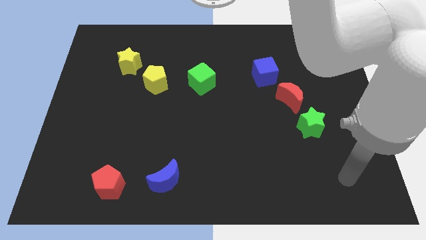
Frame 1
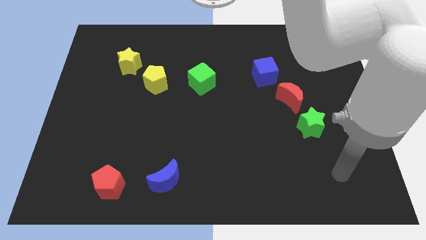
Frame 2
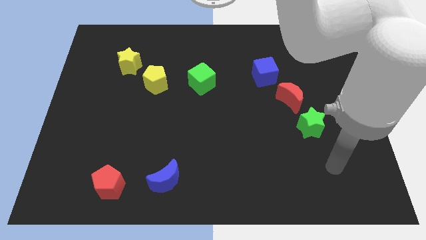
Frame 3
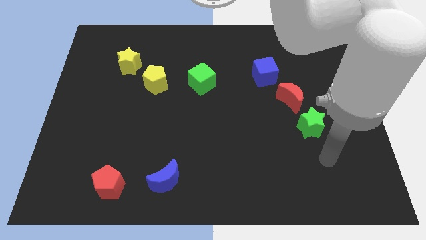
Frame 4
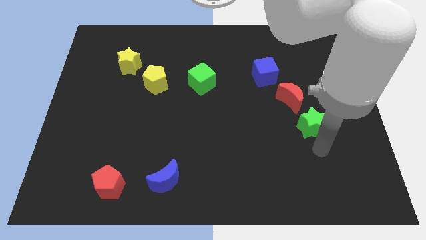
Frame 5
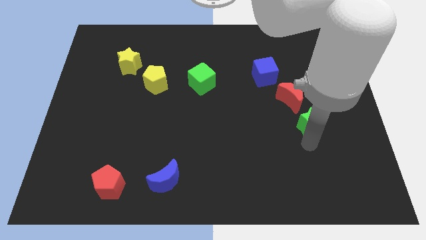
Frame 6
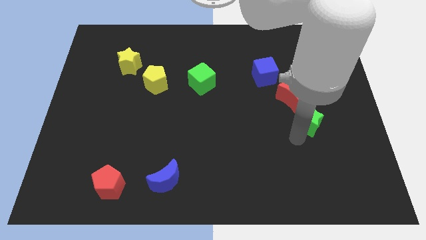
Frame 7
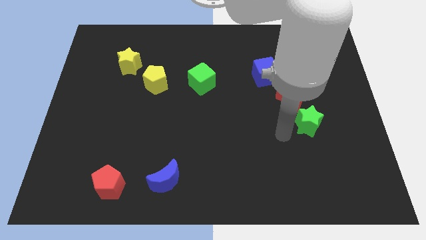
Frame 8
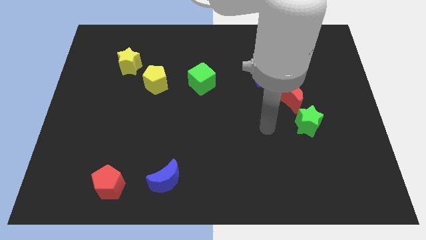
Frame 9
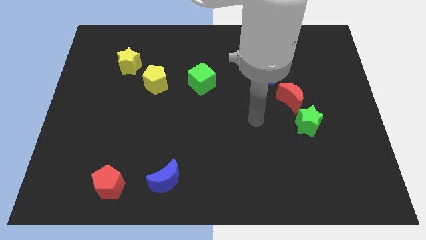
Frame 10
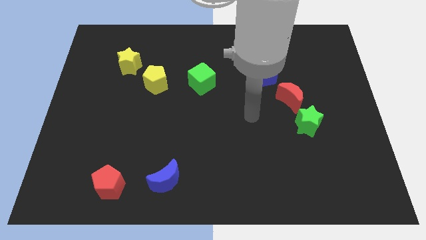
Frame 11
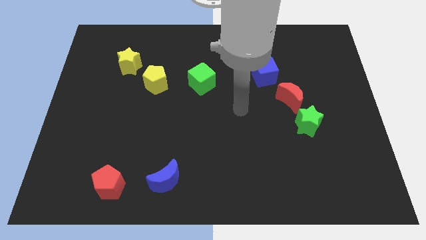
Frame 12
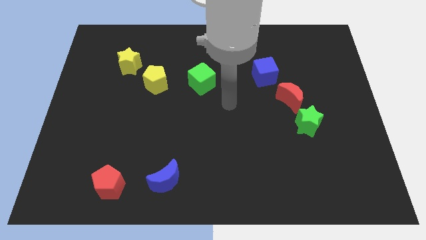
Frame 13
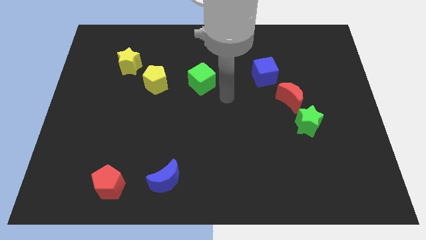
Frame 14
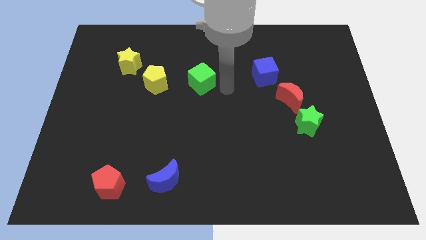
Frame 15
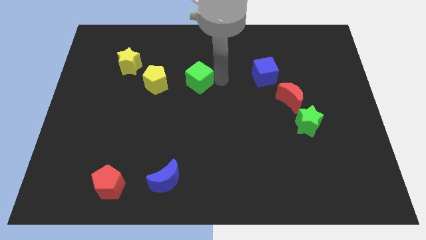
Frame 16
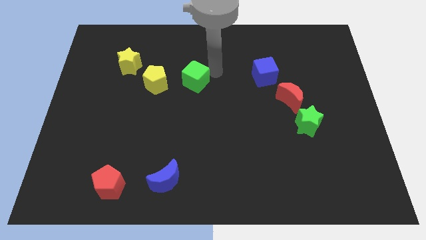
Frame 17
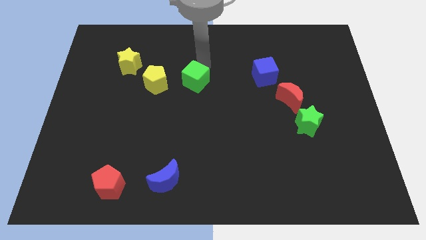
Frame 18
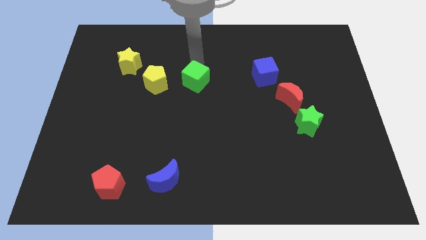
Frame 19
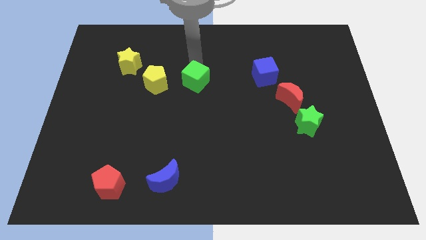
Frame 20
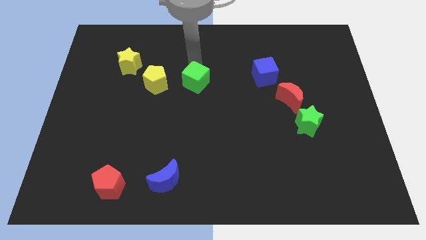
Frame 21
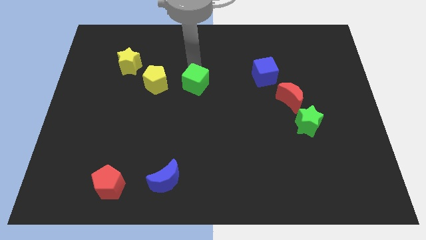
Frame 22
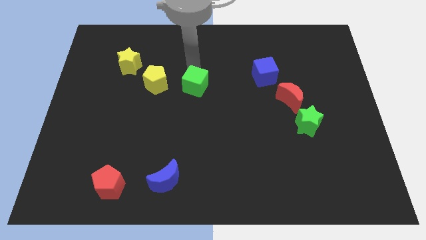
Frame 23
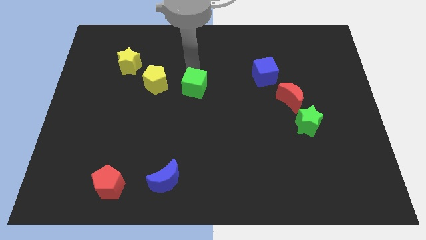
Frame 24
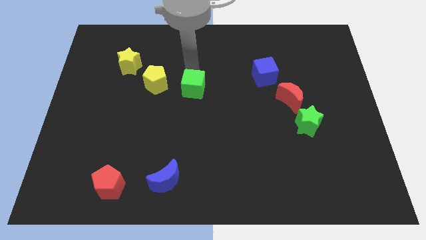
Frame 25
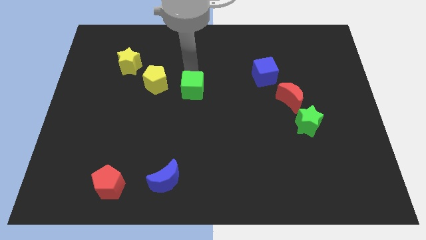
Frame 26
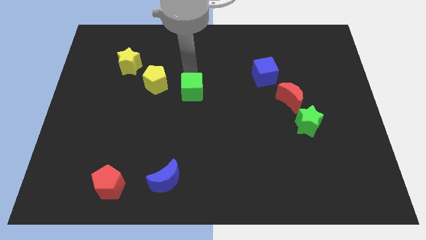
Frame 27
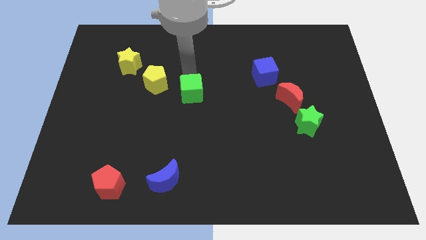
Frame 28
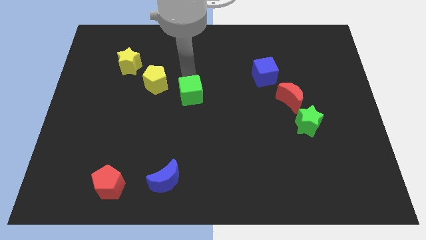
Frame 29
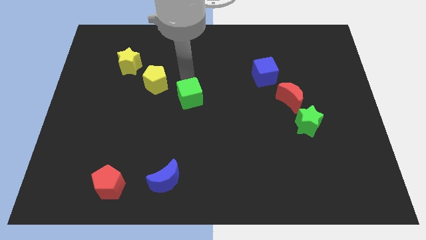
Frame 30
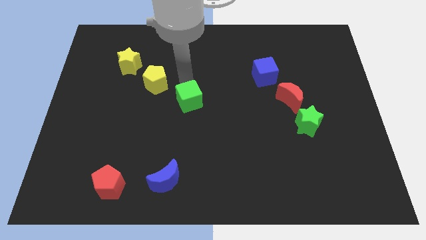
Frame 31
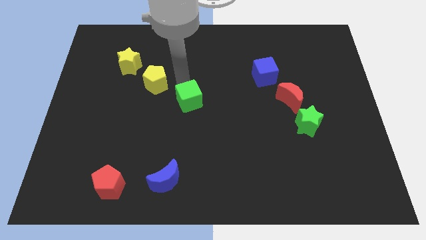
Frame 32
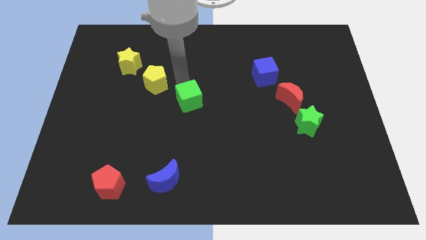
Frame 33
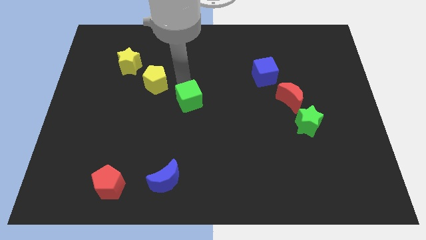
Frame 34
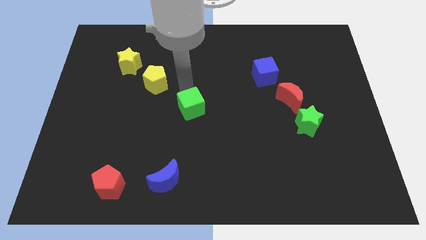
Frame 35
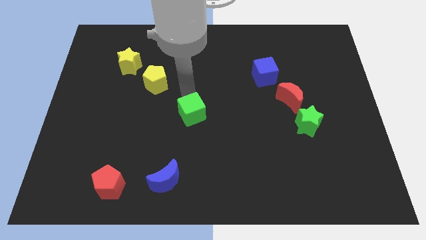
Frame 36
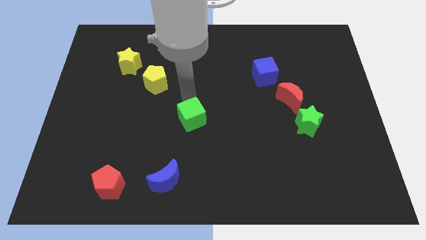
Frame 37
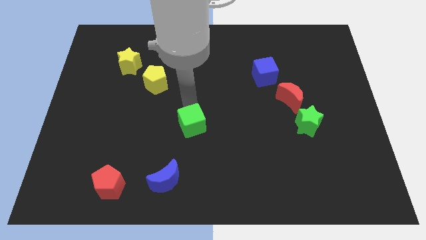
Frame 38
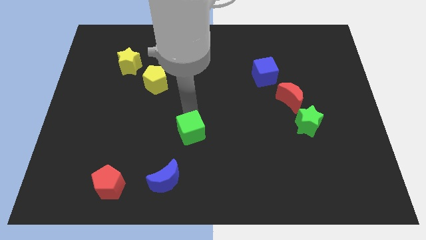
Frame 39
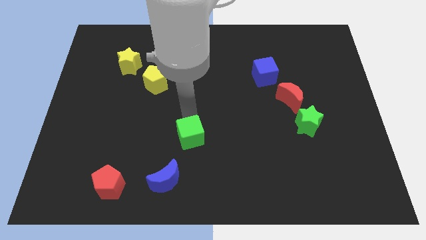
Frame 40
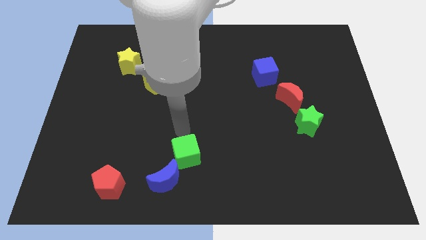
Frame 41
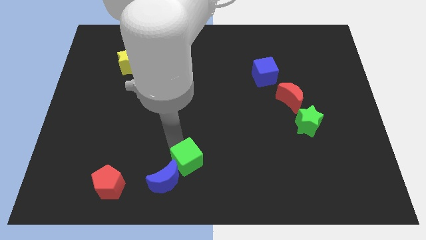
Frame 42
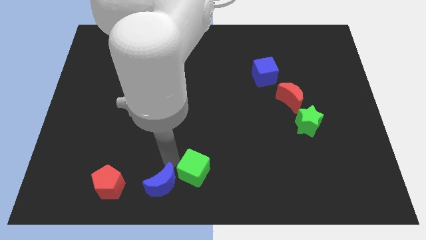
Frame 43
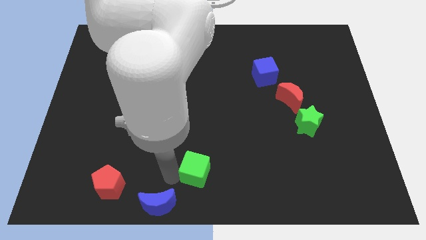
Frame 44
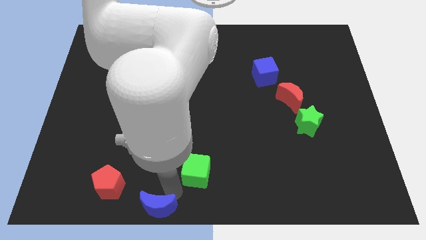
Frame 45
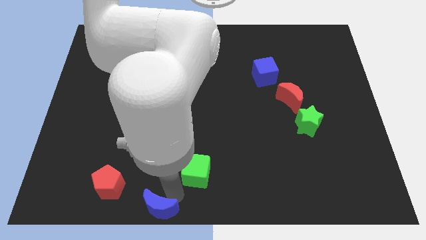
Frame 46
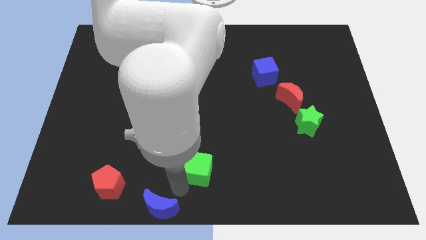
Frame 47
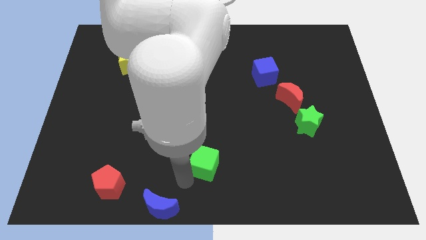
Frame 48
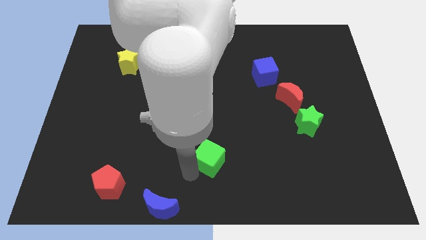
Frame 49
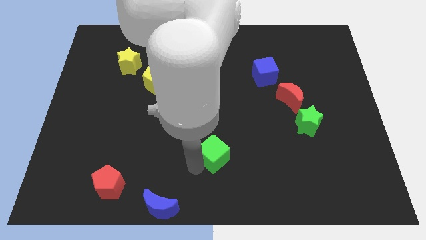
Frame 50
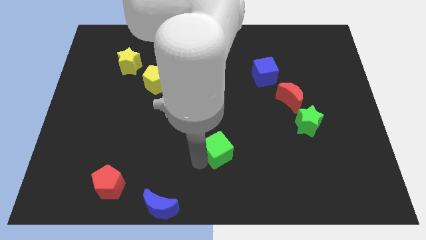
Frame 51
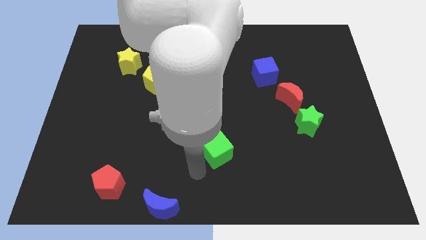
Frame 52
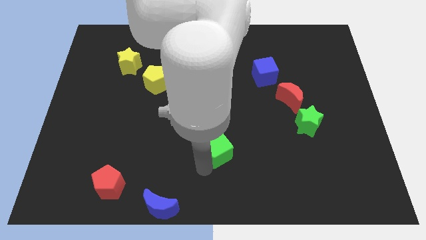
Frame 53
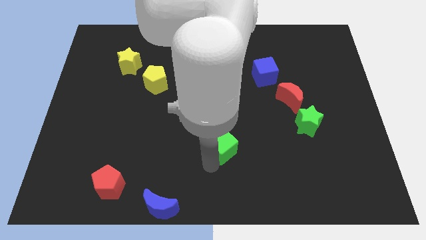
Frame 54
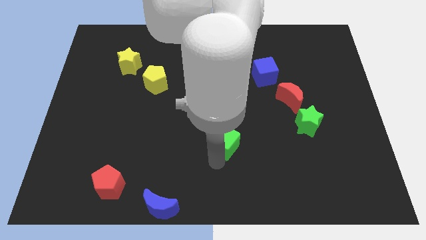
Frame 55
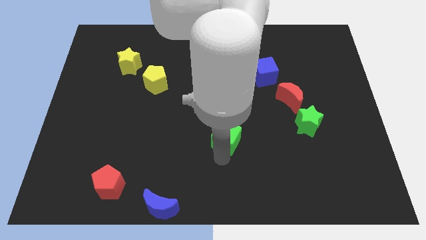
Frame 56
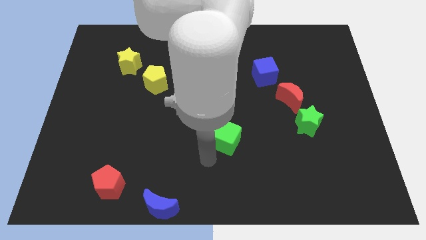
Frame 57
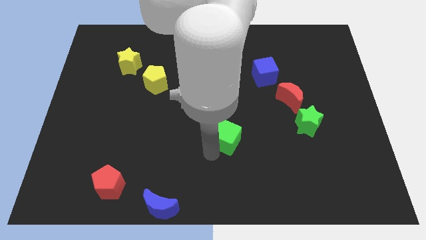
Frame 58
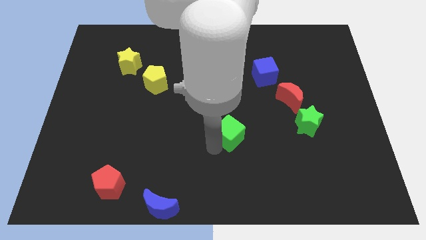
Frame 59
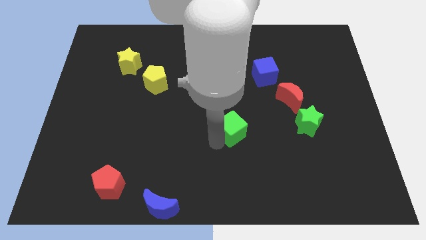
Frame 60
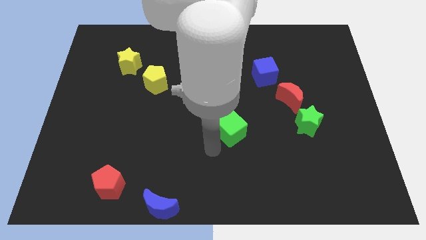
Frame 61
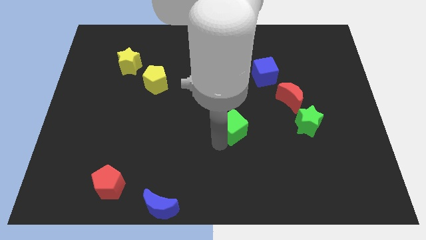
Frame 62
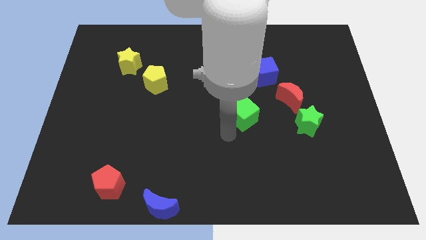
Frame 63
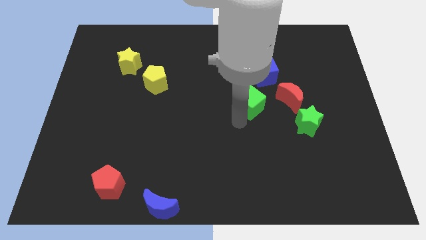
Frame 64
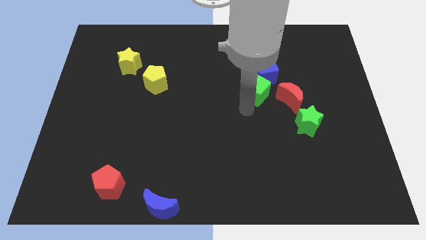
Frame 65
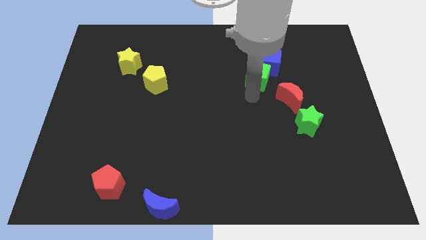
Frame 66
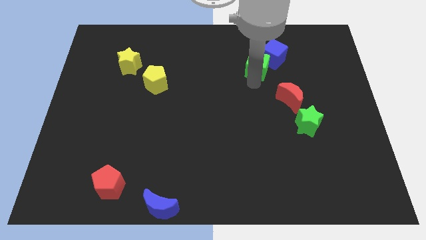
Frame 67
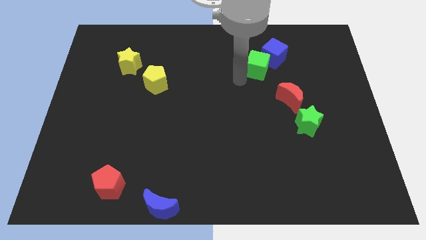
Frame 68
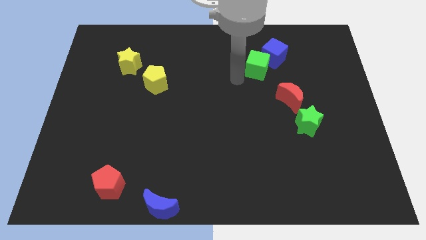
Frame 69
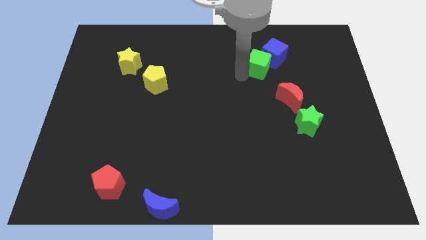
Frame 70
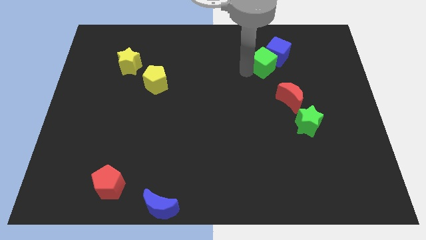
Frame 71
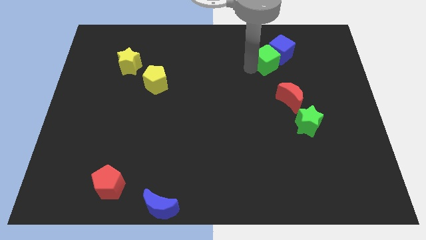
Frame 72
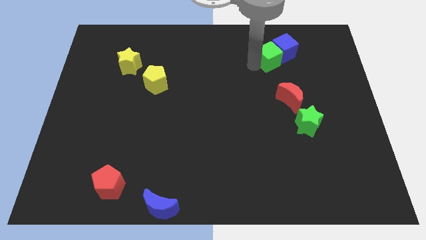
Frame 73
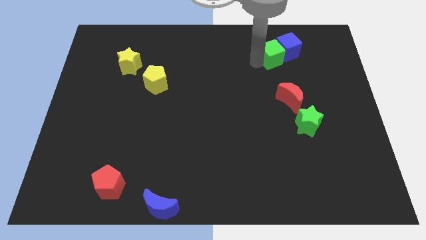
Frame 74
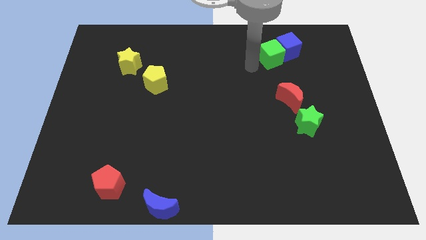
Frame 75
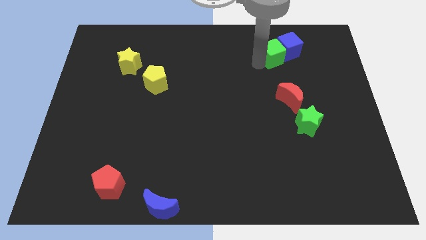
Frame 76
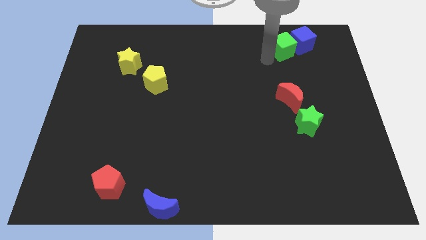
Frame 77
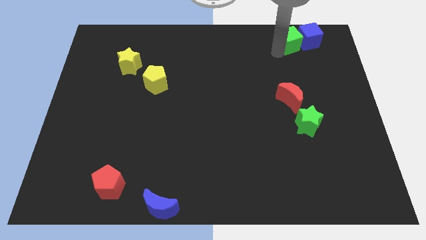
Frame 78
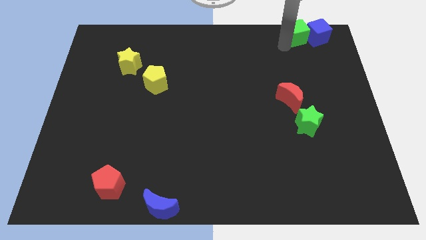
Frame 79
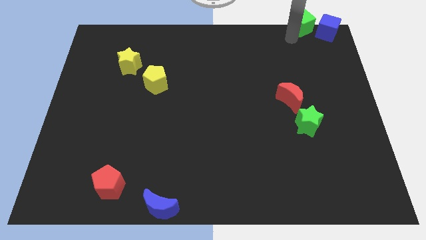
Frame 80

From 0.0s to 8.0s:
slide the green cube to the top right corner

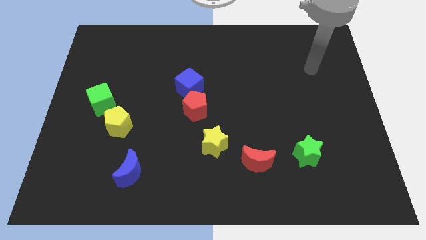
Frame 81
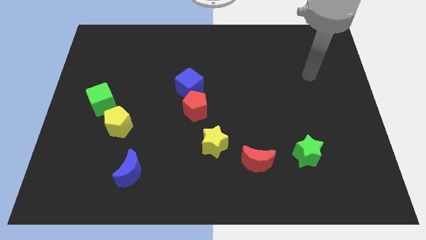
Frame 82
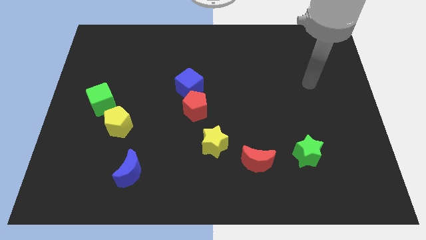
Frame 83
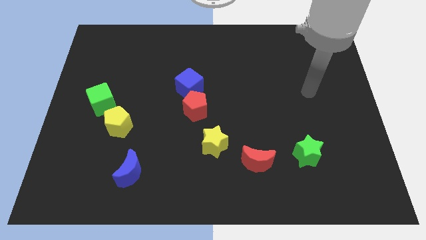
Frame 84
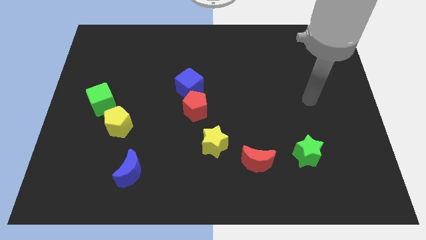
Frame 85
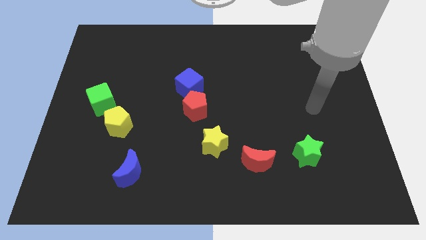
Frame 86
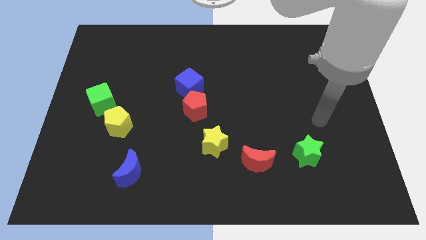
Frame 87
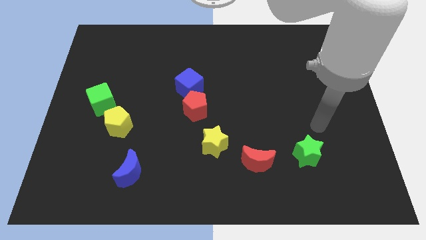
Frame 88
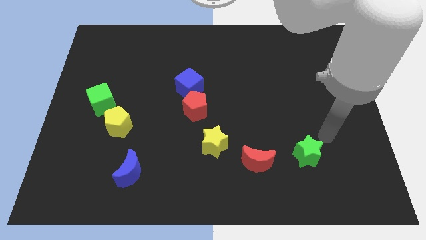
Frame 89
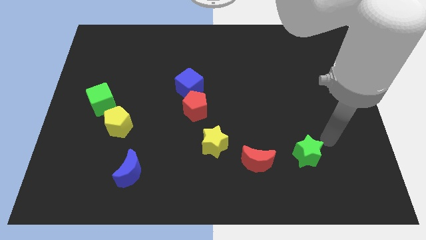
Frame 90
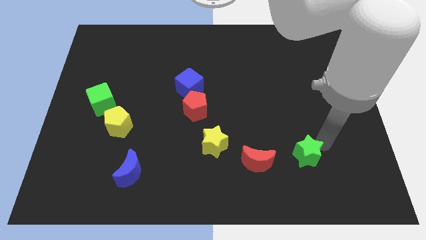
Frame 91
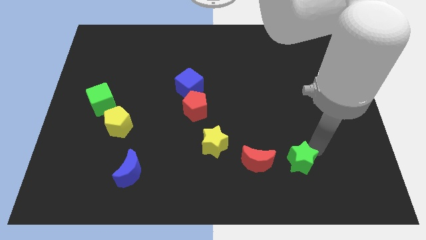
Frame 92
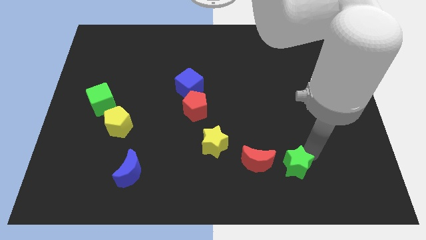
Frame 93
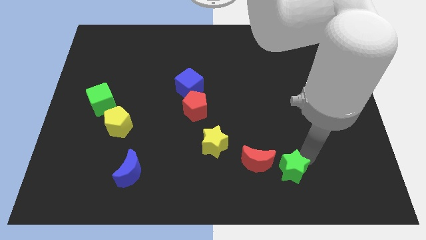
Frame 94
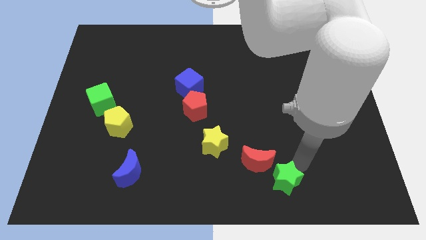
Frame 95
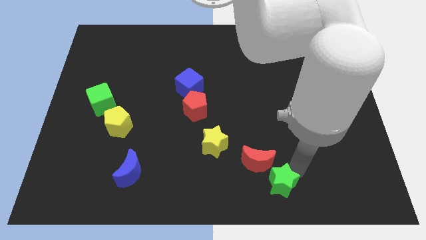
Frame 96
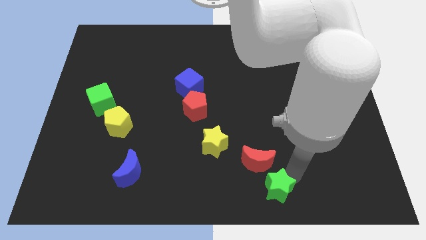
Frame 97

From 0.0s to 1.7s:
move the green star to the bottom
